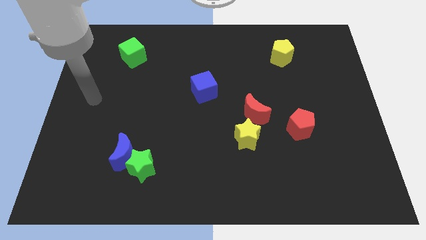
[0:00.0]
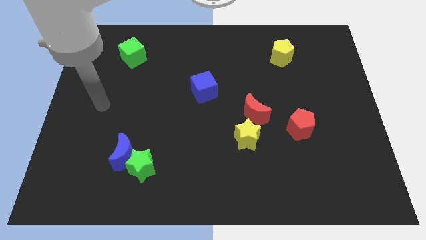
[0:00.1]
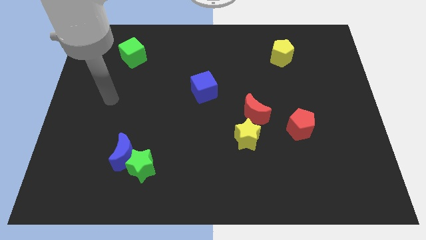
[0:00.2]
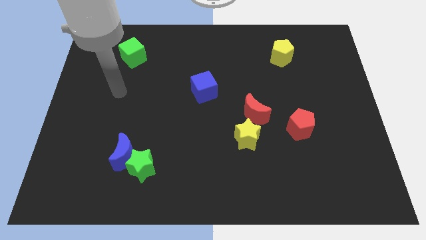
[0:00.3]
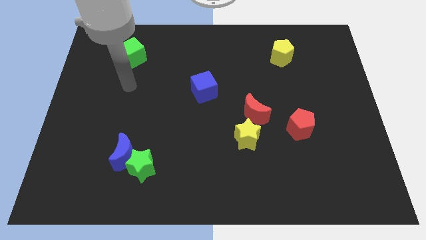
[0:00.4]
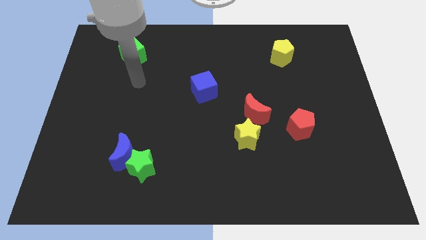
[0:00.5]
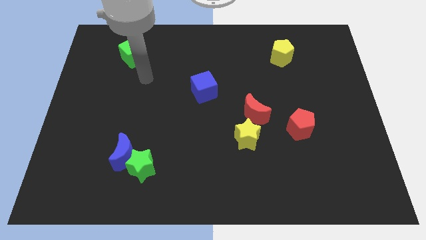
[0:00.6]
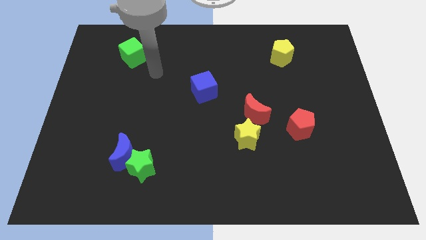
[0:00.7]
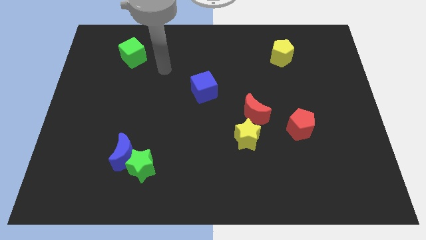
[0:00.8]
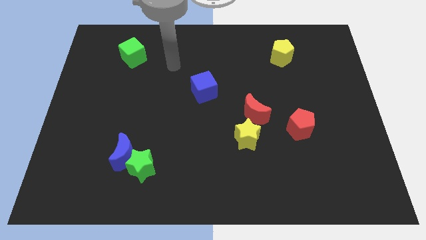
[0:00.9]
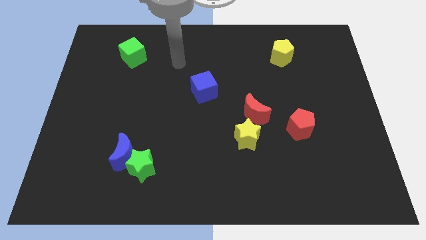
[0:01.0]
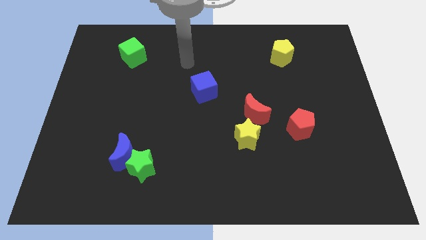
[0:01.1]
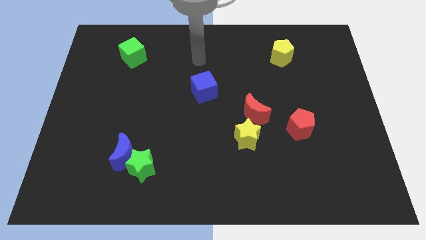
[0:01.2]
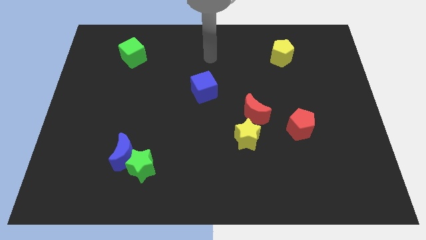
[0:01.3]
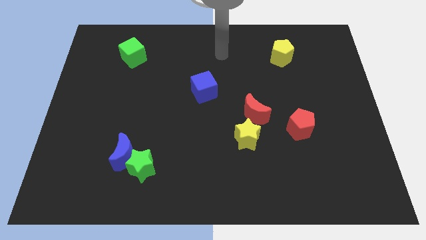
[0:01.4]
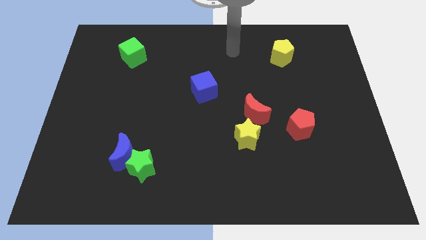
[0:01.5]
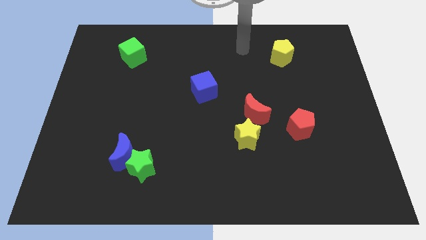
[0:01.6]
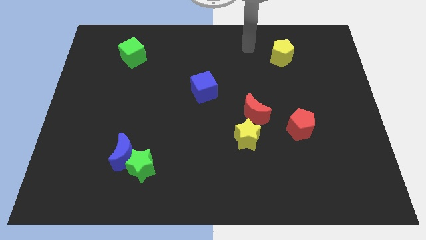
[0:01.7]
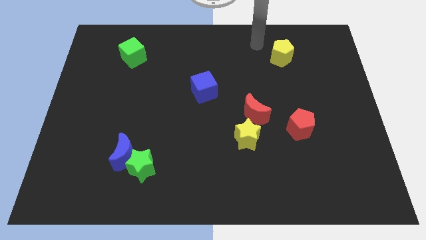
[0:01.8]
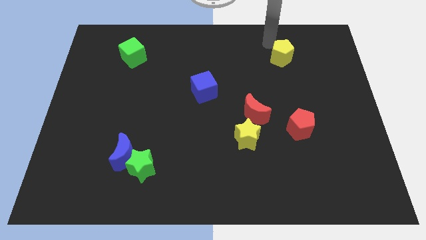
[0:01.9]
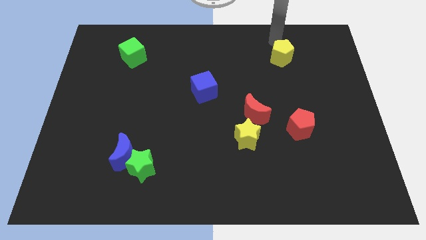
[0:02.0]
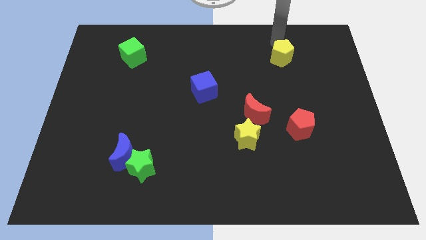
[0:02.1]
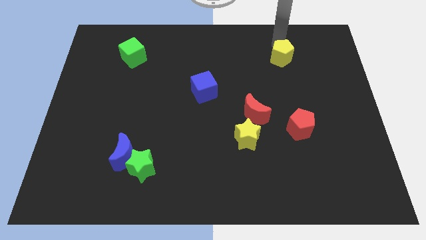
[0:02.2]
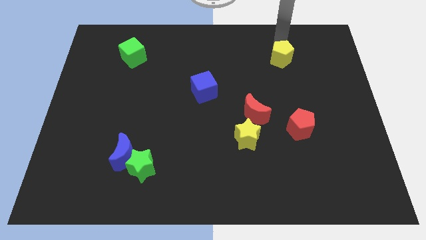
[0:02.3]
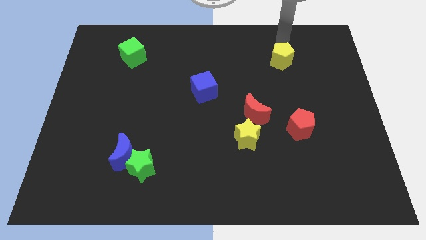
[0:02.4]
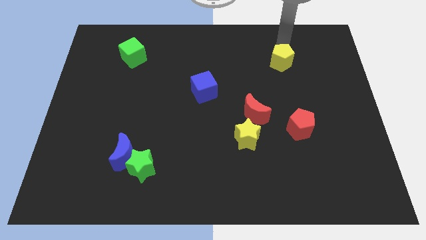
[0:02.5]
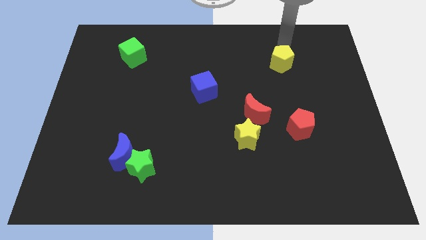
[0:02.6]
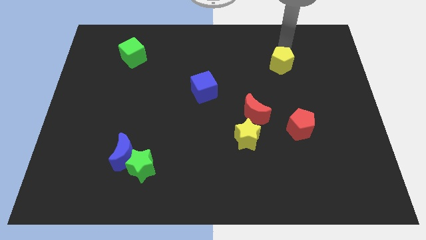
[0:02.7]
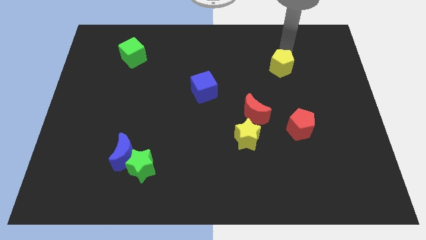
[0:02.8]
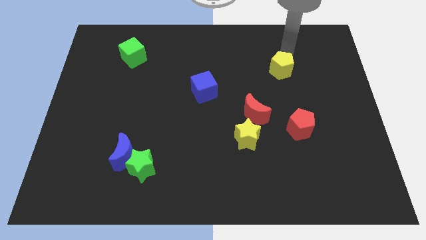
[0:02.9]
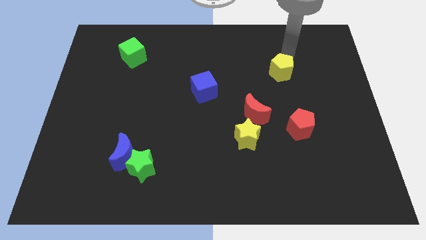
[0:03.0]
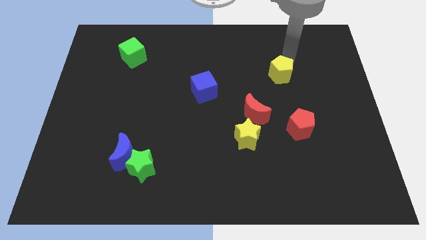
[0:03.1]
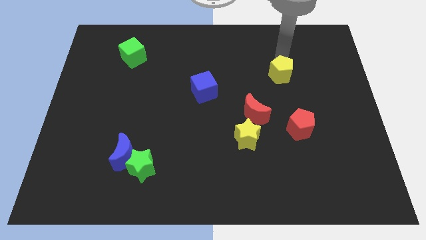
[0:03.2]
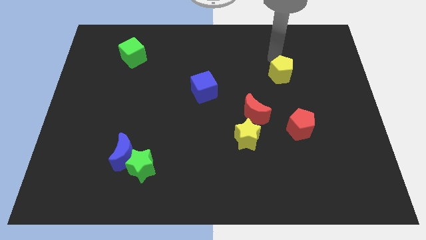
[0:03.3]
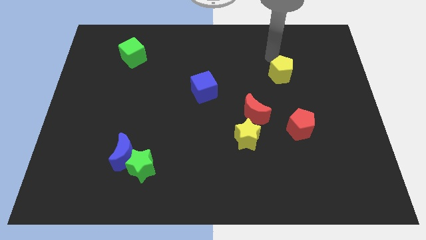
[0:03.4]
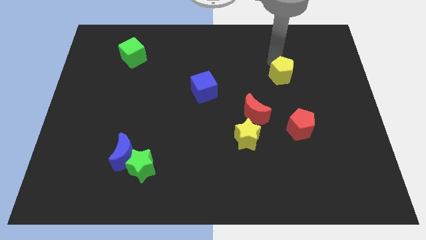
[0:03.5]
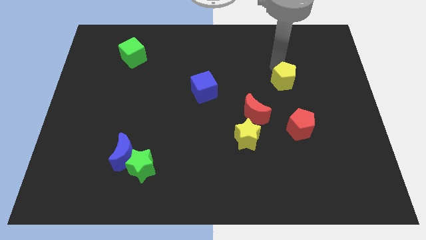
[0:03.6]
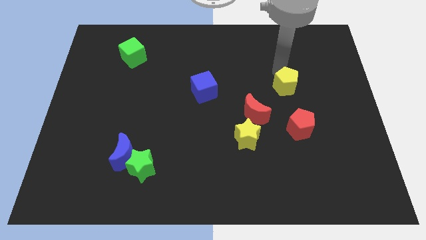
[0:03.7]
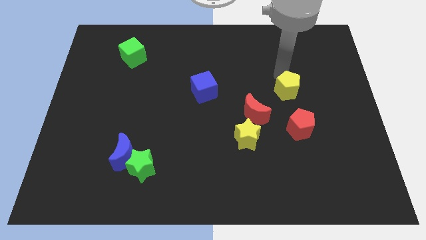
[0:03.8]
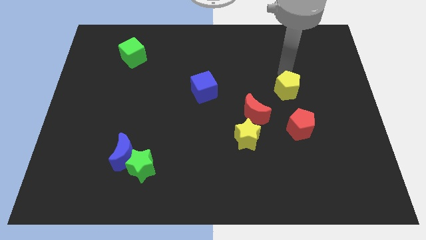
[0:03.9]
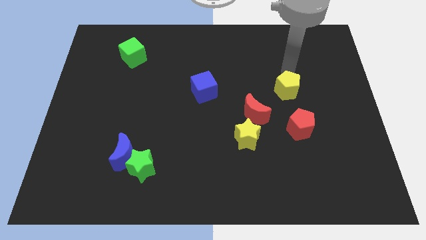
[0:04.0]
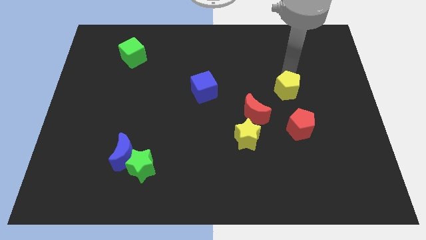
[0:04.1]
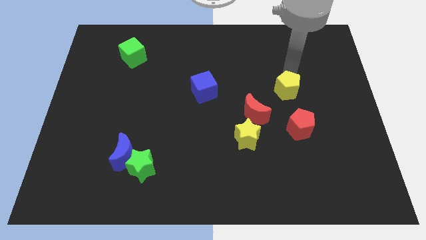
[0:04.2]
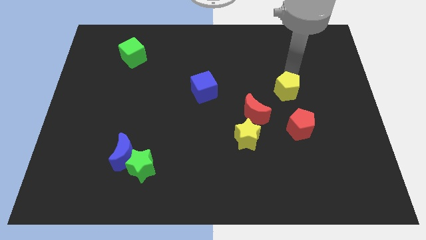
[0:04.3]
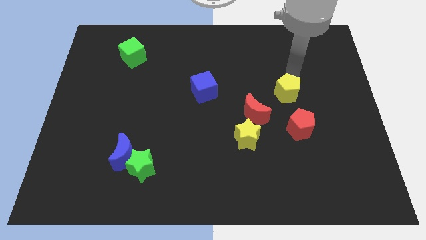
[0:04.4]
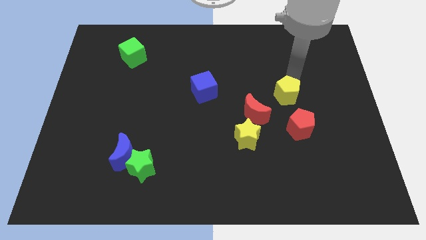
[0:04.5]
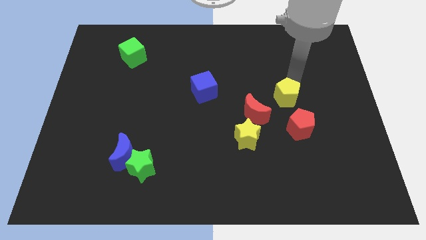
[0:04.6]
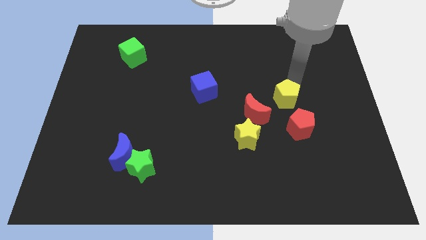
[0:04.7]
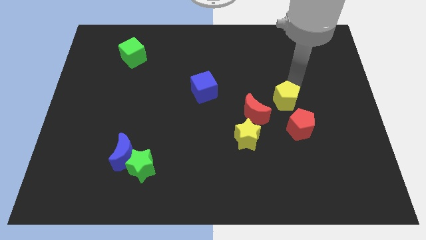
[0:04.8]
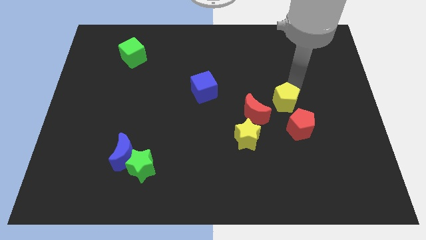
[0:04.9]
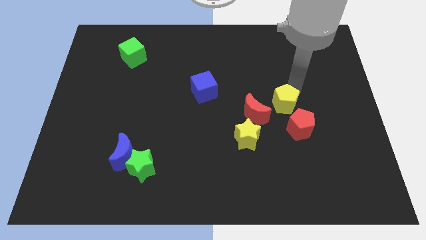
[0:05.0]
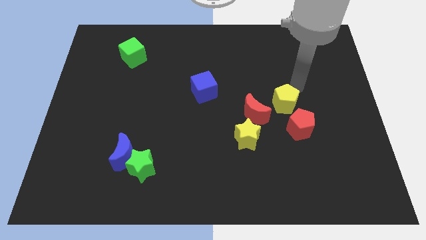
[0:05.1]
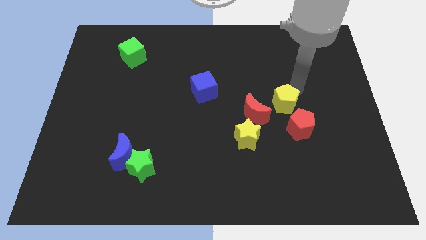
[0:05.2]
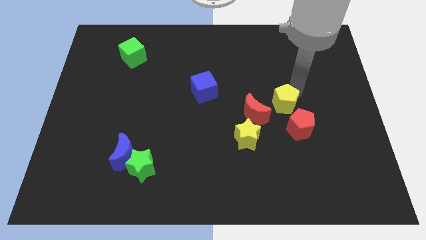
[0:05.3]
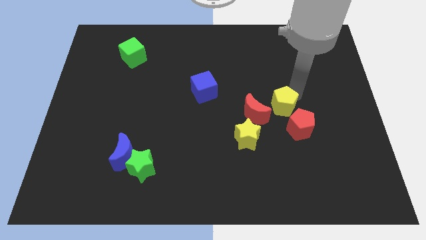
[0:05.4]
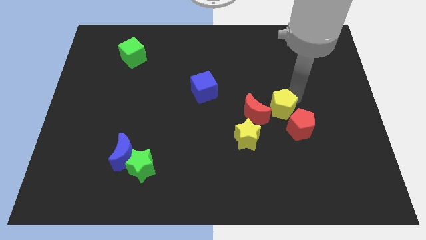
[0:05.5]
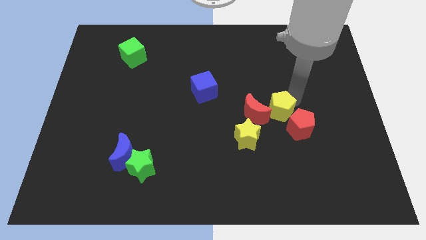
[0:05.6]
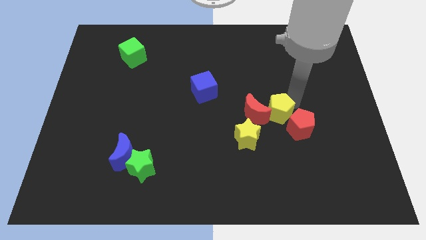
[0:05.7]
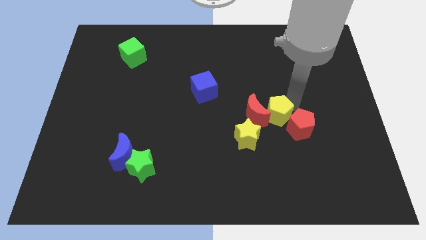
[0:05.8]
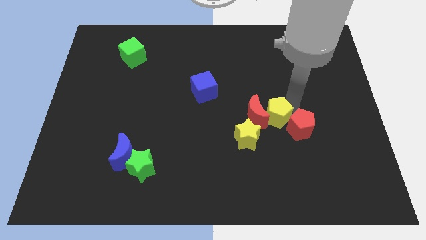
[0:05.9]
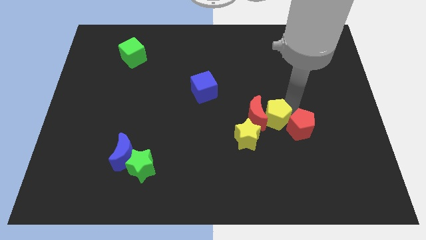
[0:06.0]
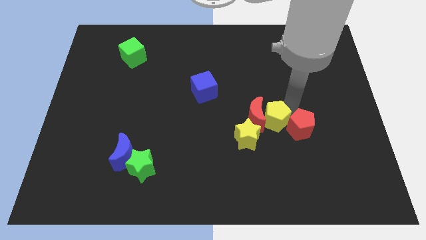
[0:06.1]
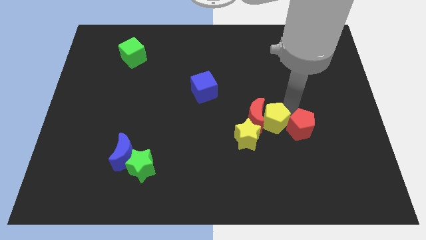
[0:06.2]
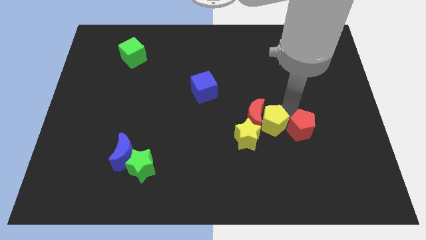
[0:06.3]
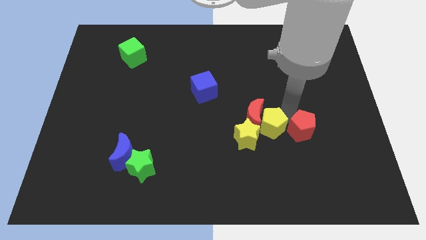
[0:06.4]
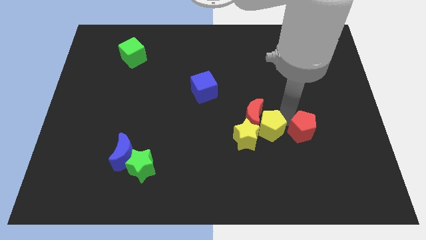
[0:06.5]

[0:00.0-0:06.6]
put the yellow pentagon next to the yellow star
